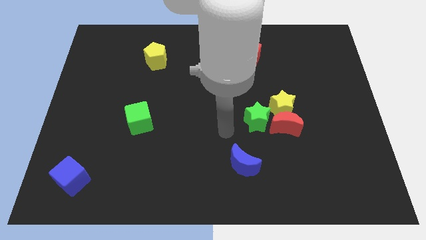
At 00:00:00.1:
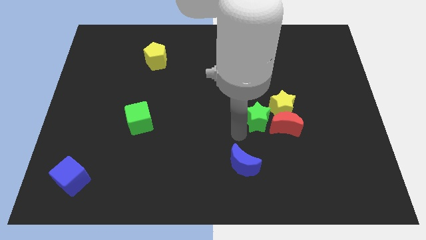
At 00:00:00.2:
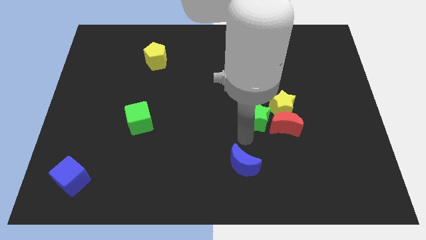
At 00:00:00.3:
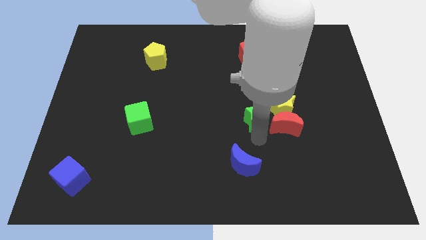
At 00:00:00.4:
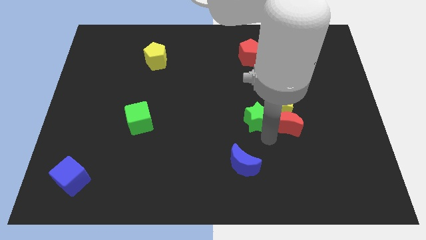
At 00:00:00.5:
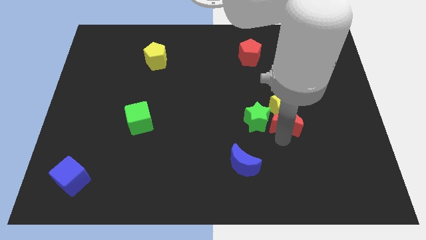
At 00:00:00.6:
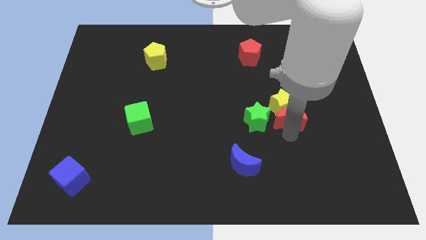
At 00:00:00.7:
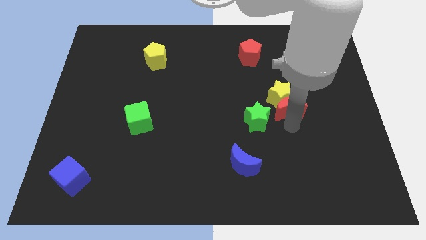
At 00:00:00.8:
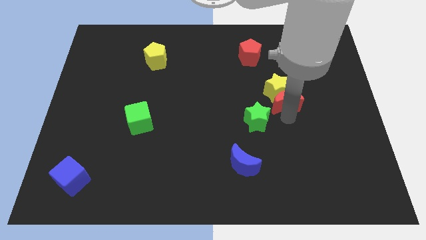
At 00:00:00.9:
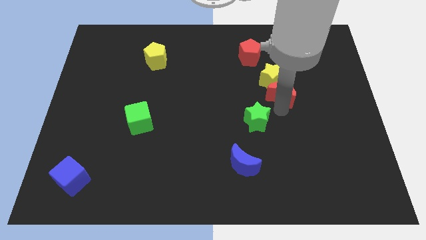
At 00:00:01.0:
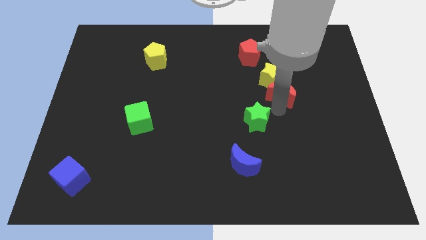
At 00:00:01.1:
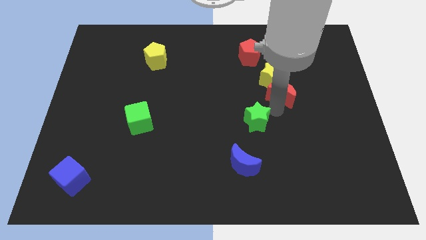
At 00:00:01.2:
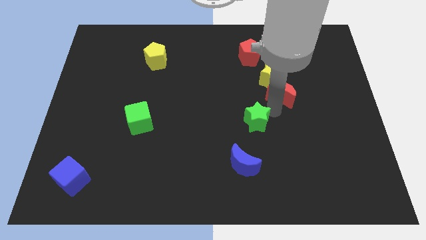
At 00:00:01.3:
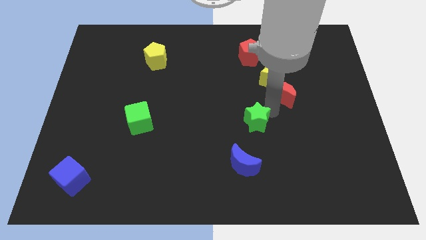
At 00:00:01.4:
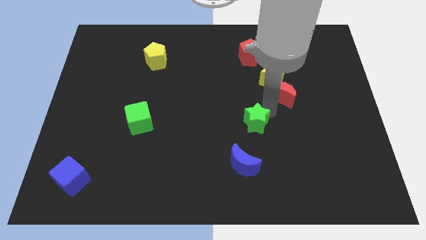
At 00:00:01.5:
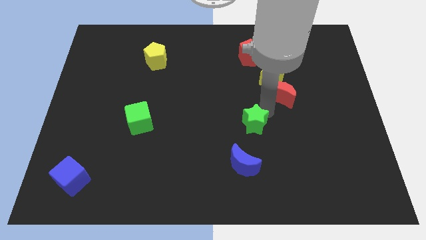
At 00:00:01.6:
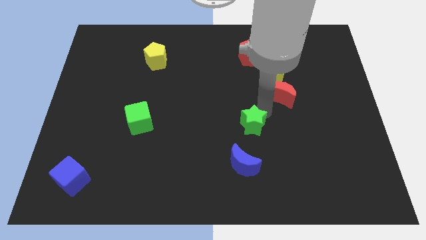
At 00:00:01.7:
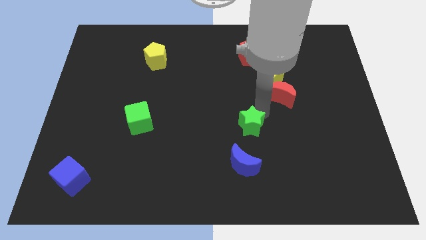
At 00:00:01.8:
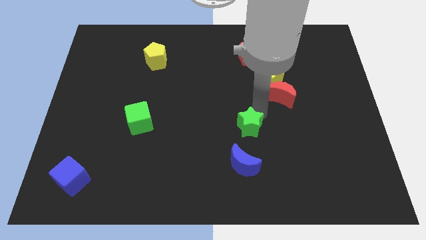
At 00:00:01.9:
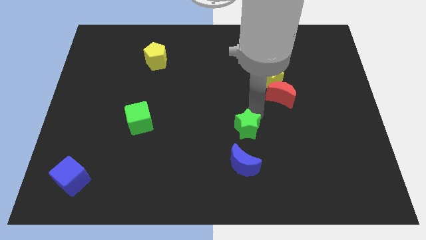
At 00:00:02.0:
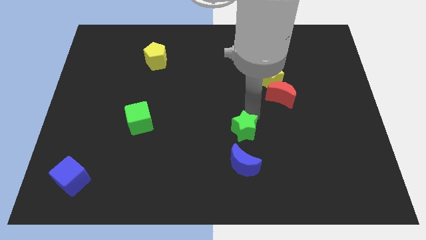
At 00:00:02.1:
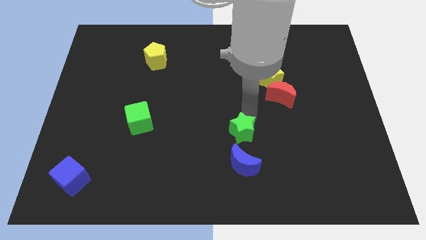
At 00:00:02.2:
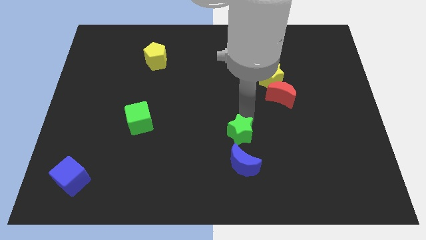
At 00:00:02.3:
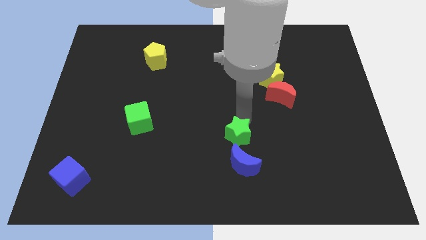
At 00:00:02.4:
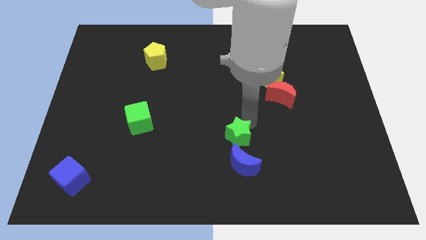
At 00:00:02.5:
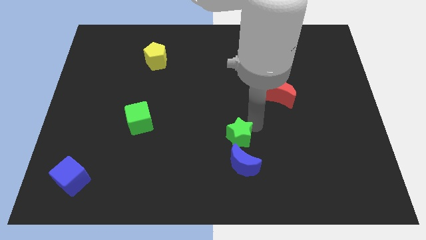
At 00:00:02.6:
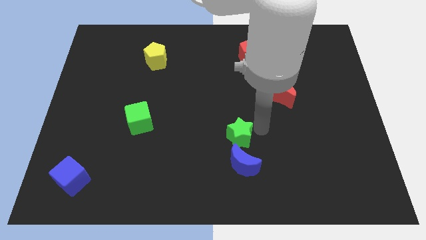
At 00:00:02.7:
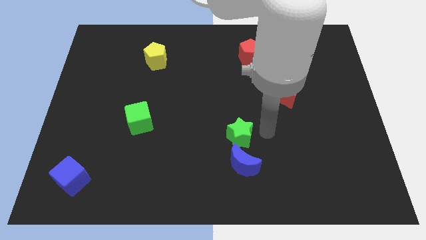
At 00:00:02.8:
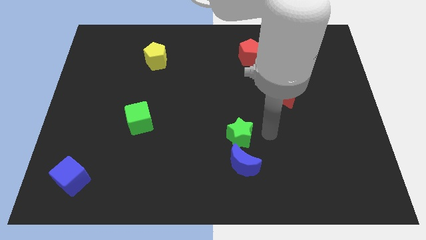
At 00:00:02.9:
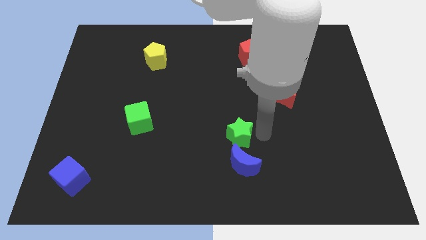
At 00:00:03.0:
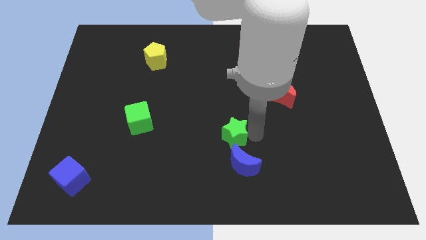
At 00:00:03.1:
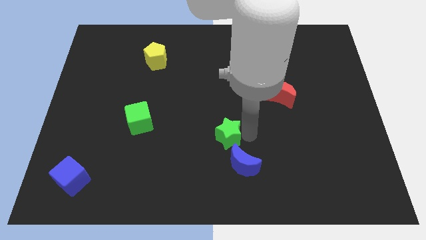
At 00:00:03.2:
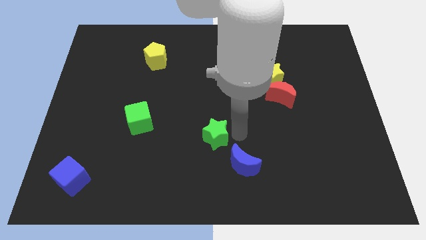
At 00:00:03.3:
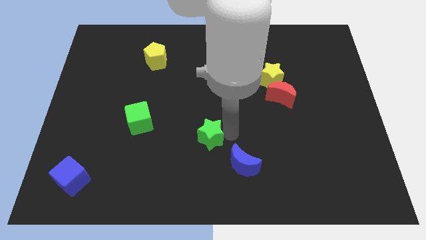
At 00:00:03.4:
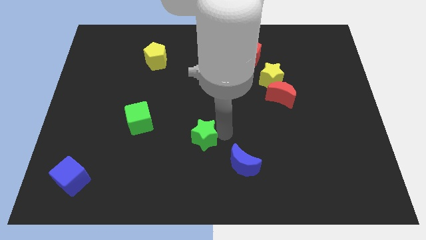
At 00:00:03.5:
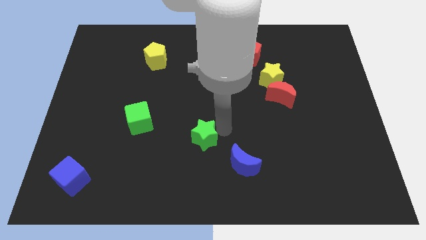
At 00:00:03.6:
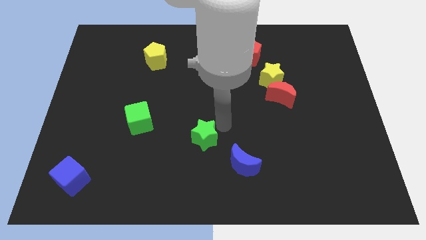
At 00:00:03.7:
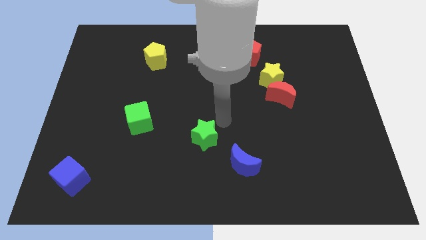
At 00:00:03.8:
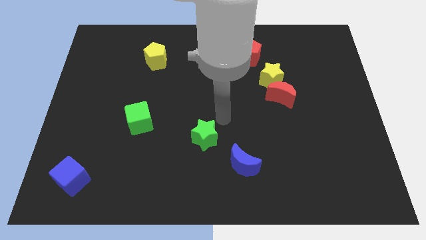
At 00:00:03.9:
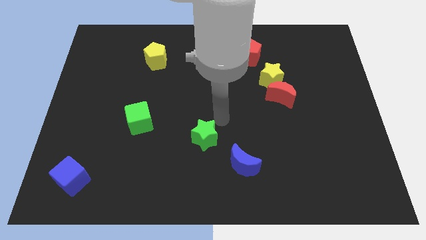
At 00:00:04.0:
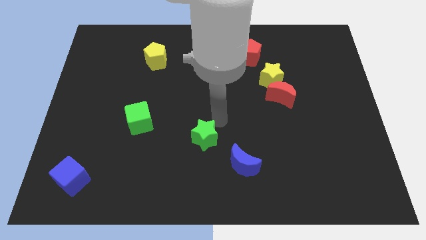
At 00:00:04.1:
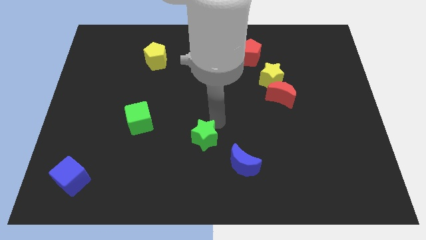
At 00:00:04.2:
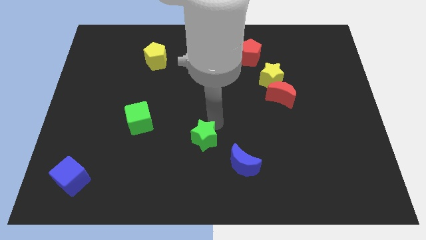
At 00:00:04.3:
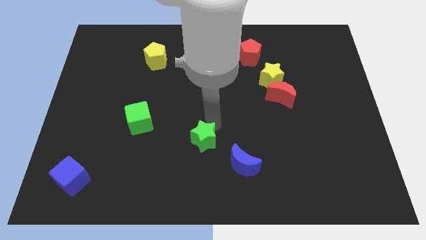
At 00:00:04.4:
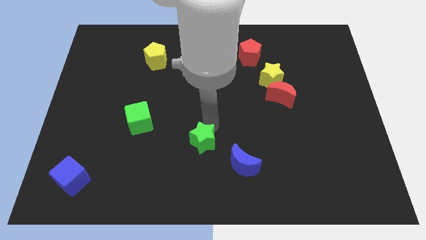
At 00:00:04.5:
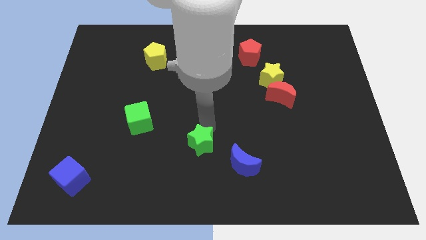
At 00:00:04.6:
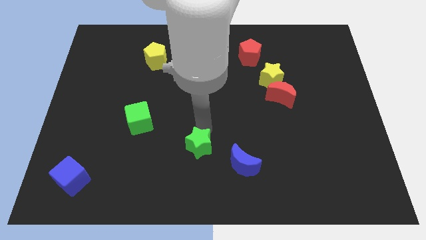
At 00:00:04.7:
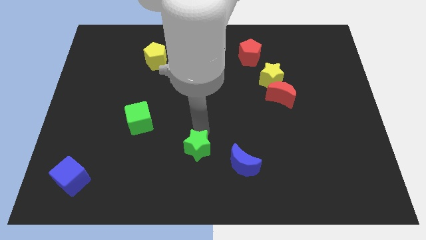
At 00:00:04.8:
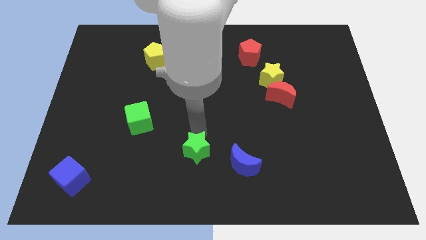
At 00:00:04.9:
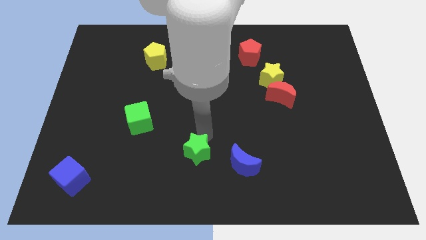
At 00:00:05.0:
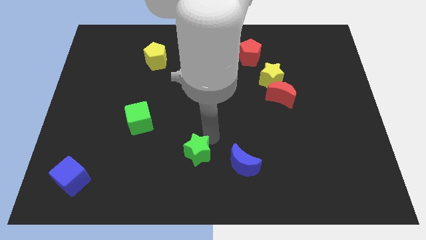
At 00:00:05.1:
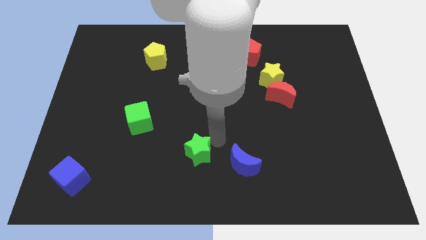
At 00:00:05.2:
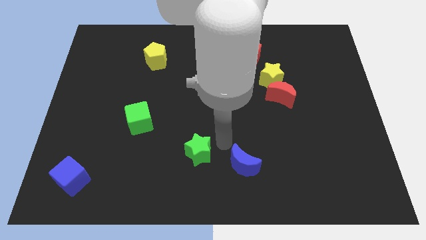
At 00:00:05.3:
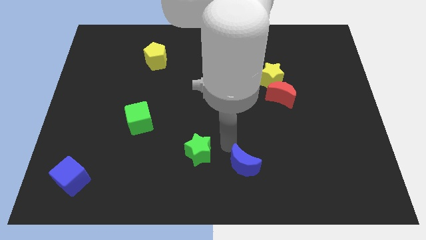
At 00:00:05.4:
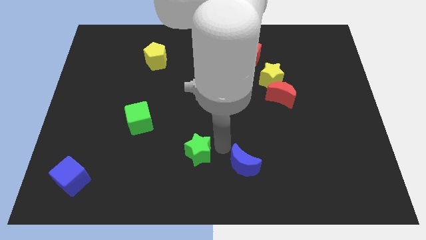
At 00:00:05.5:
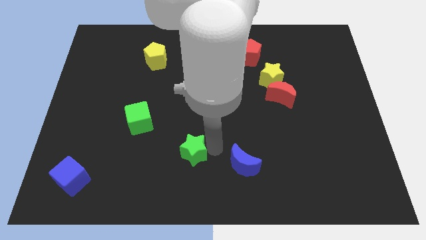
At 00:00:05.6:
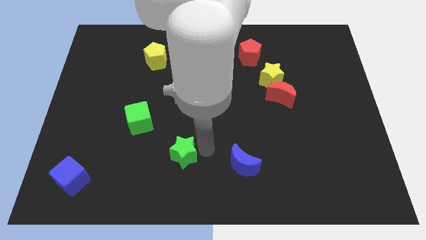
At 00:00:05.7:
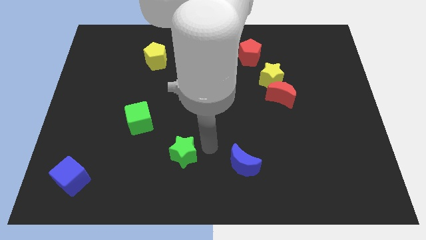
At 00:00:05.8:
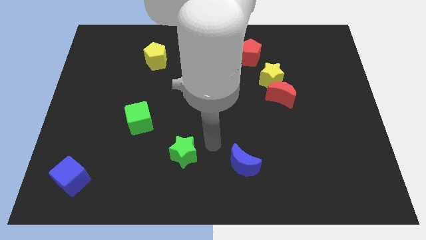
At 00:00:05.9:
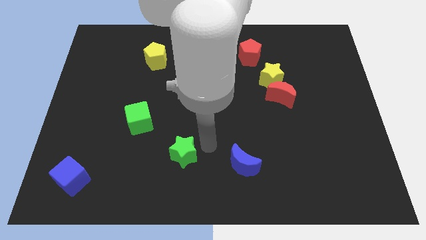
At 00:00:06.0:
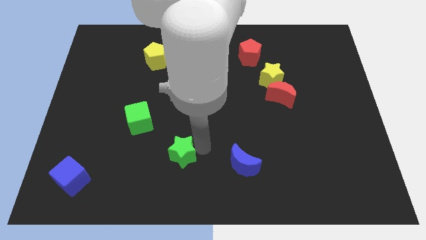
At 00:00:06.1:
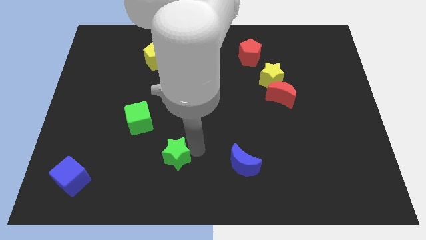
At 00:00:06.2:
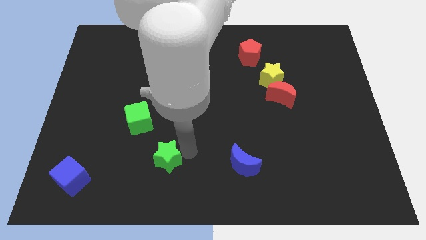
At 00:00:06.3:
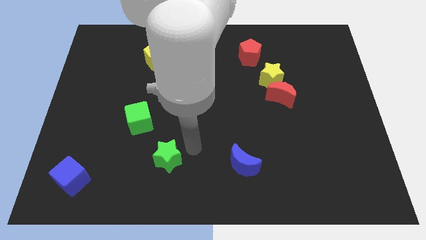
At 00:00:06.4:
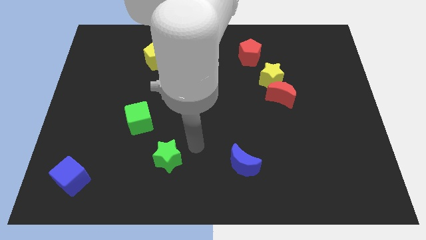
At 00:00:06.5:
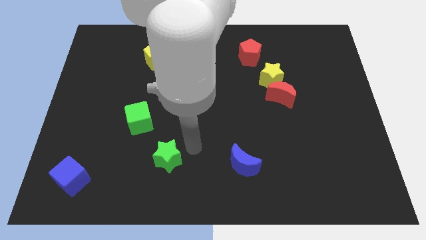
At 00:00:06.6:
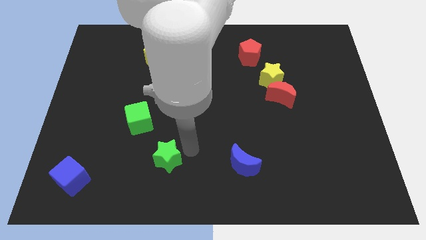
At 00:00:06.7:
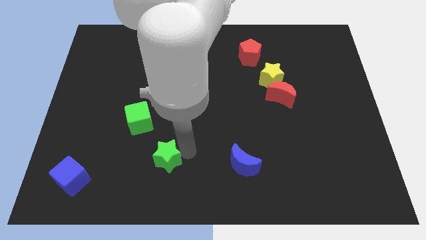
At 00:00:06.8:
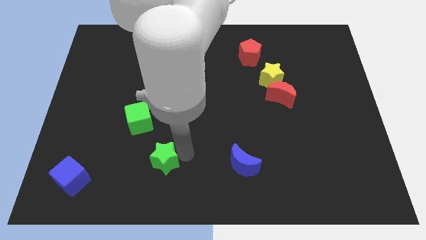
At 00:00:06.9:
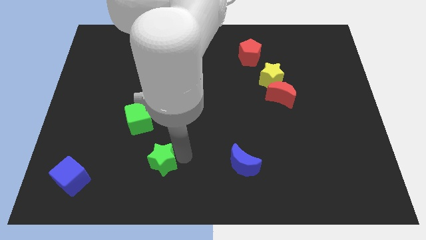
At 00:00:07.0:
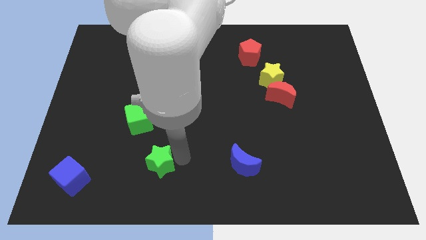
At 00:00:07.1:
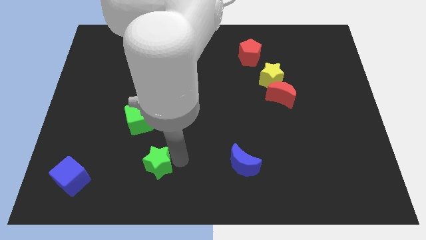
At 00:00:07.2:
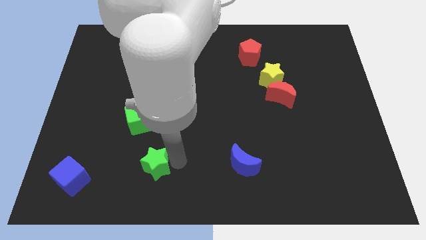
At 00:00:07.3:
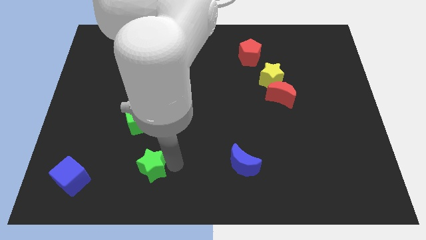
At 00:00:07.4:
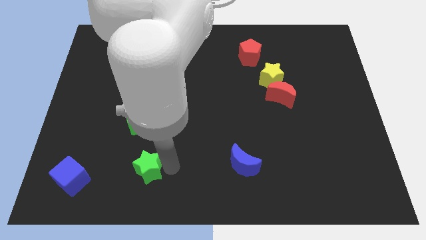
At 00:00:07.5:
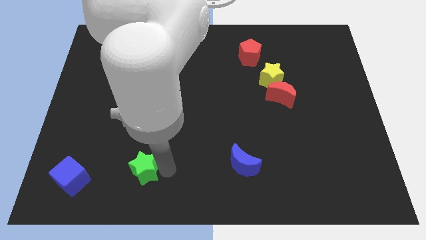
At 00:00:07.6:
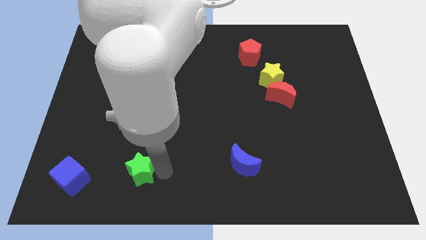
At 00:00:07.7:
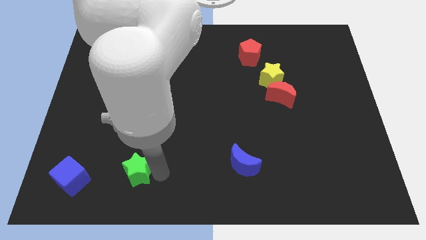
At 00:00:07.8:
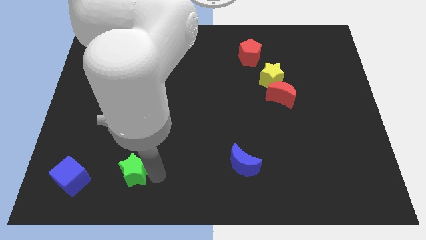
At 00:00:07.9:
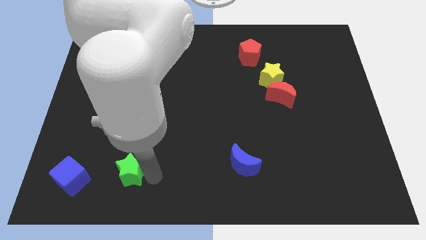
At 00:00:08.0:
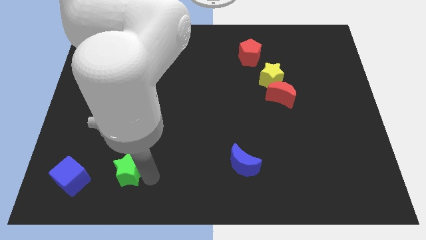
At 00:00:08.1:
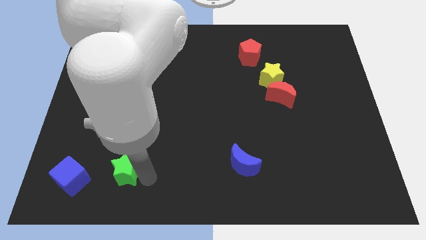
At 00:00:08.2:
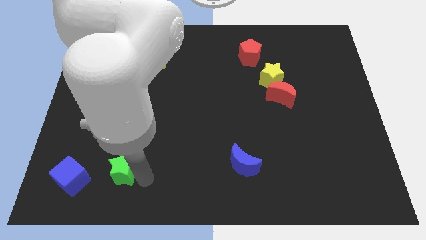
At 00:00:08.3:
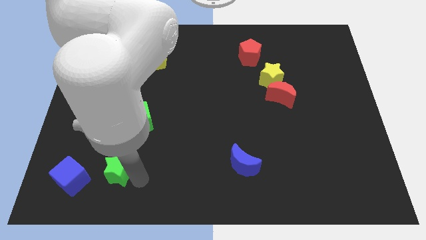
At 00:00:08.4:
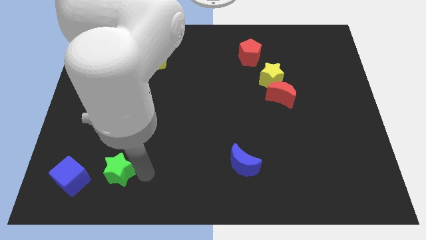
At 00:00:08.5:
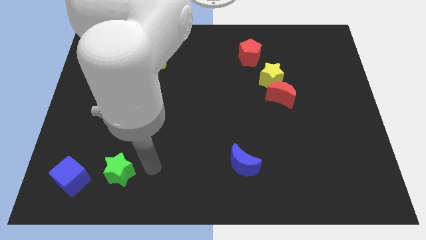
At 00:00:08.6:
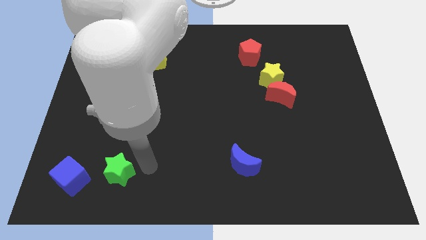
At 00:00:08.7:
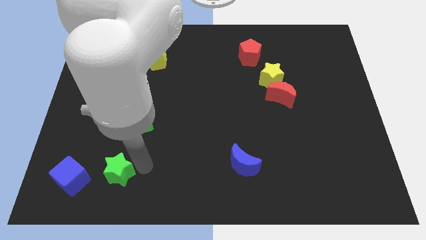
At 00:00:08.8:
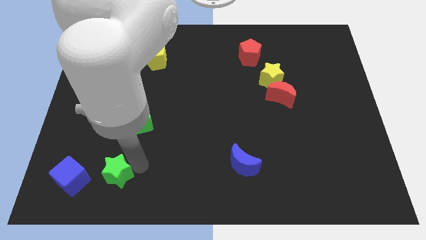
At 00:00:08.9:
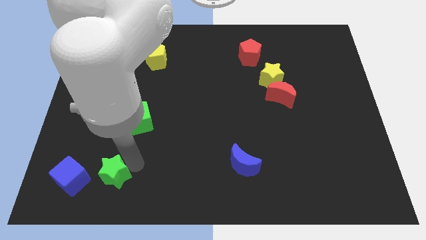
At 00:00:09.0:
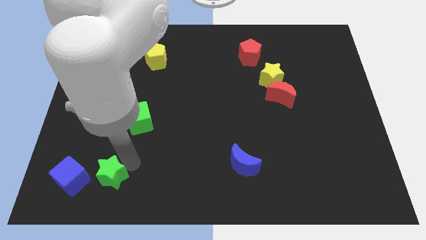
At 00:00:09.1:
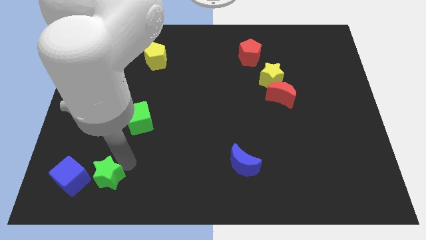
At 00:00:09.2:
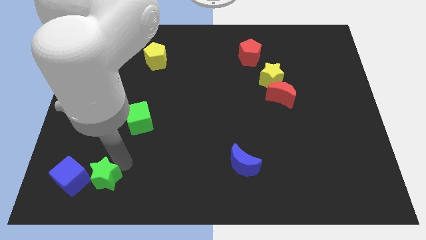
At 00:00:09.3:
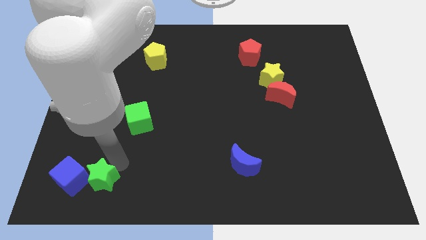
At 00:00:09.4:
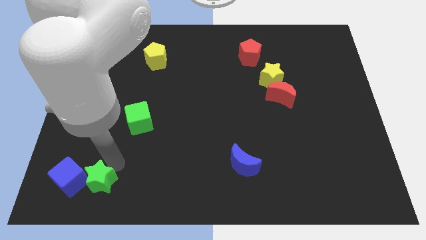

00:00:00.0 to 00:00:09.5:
move the green star next to the blue cube
